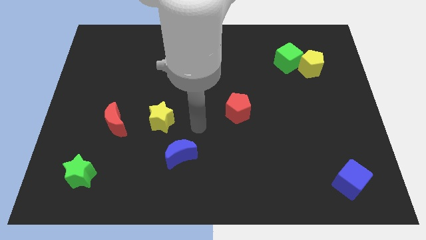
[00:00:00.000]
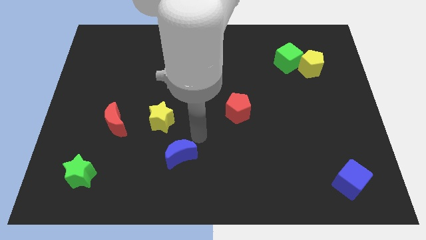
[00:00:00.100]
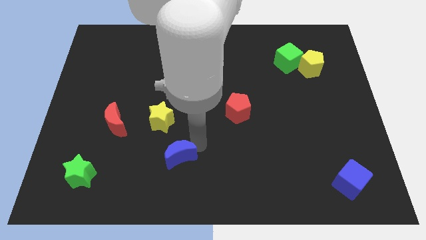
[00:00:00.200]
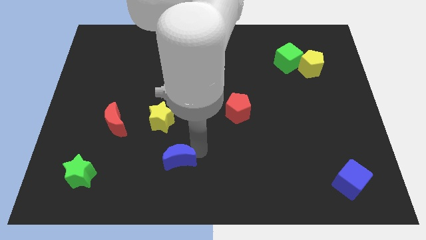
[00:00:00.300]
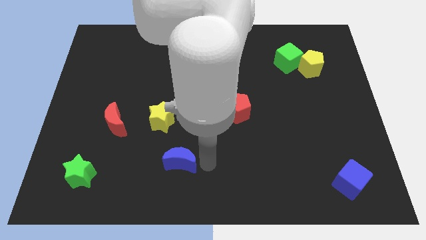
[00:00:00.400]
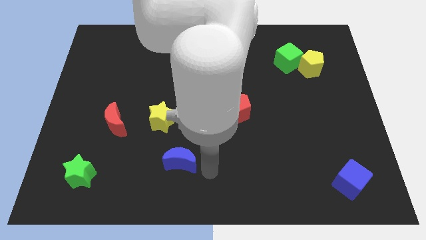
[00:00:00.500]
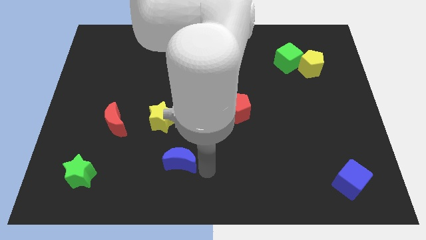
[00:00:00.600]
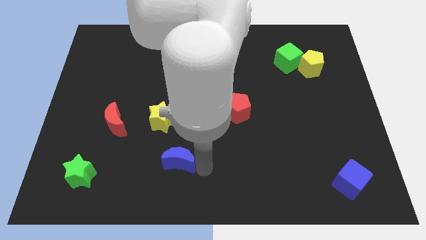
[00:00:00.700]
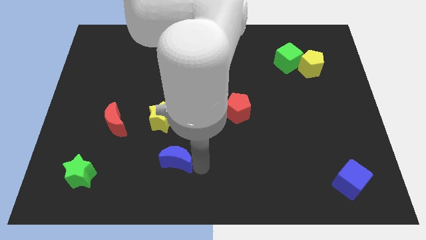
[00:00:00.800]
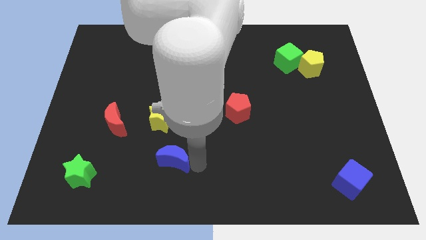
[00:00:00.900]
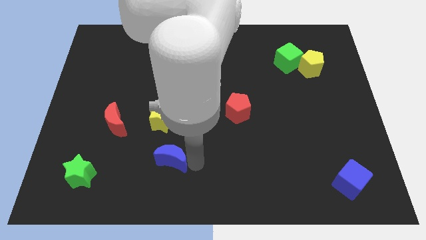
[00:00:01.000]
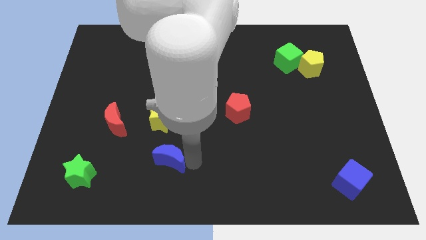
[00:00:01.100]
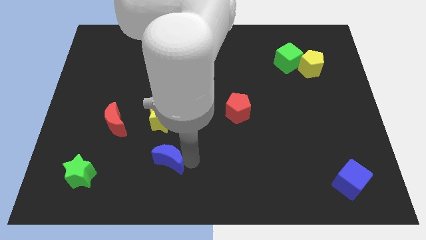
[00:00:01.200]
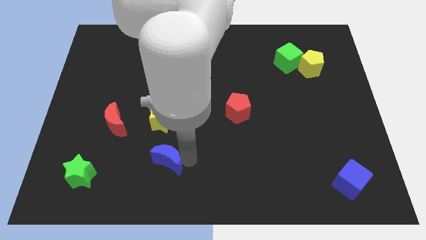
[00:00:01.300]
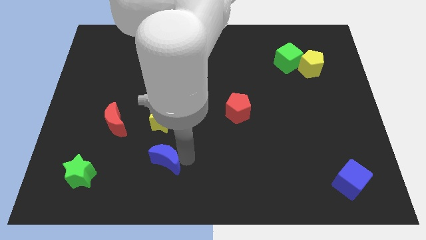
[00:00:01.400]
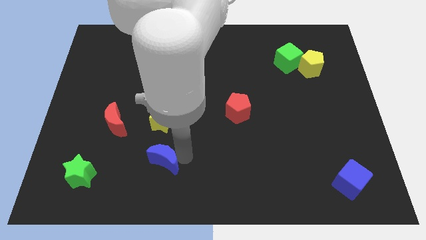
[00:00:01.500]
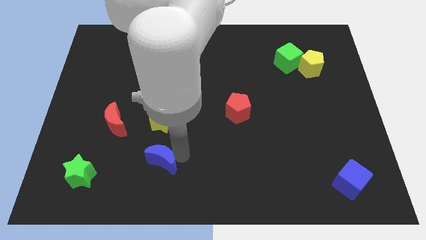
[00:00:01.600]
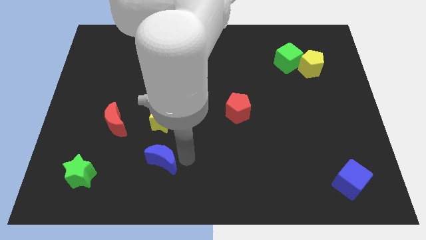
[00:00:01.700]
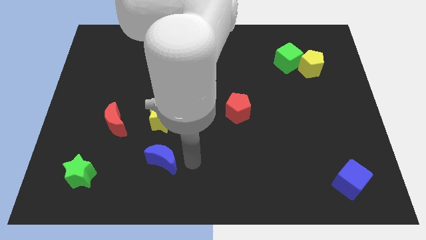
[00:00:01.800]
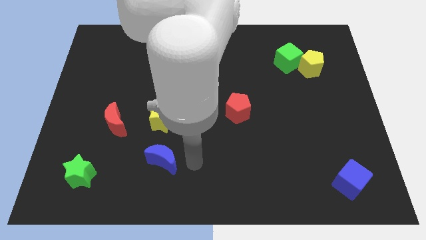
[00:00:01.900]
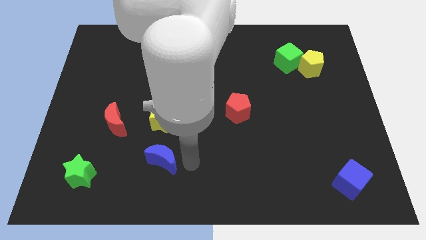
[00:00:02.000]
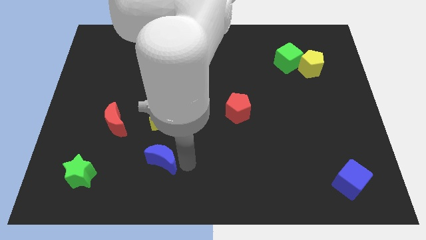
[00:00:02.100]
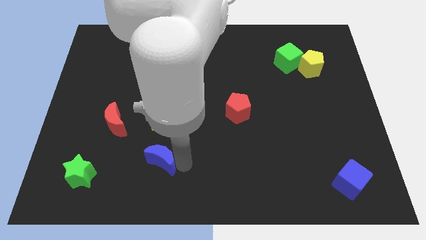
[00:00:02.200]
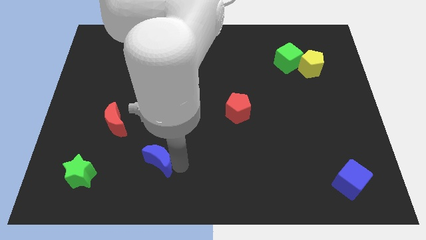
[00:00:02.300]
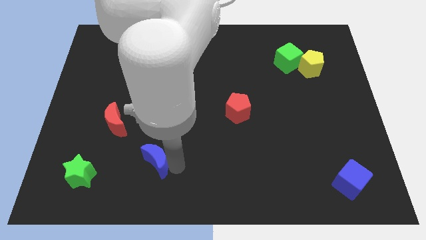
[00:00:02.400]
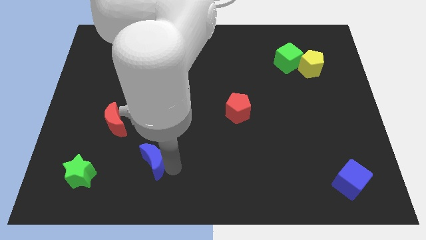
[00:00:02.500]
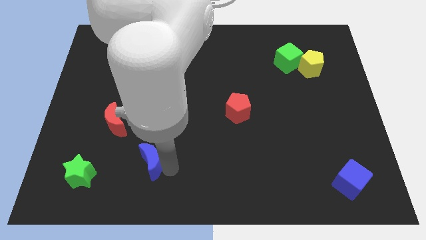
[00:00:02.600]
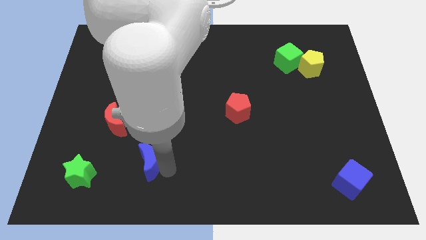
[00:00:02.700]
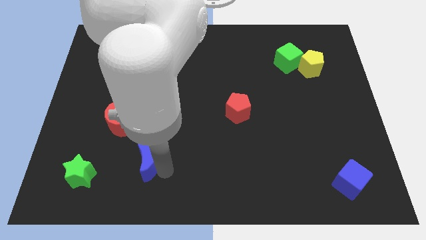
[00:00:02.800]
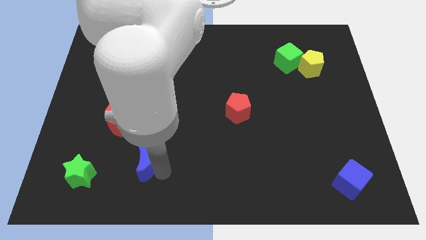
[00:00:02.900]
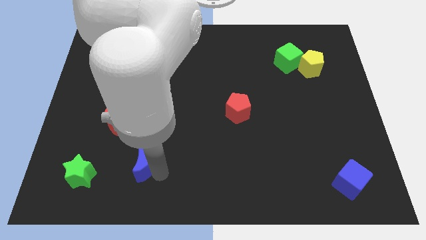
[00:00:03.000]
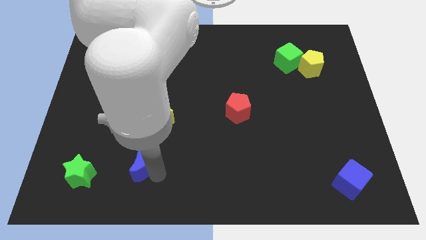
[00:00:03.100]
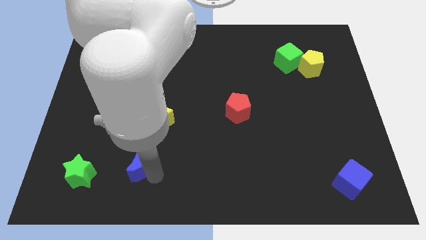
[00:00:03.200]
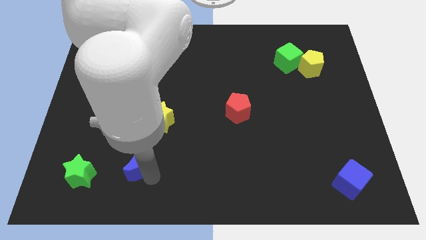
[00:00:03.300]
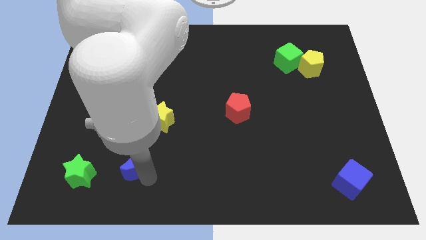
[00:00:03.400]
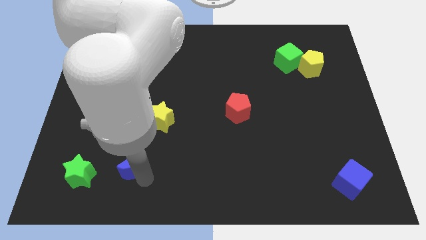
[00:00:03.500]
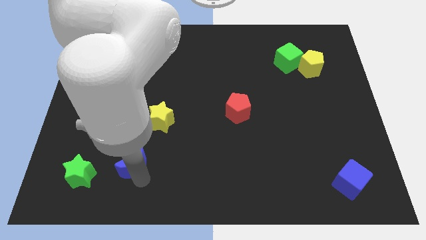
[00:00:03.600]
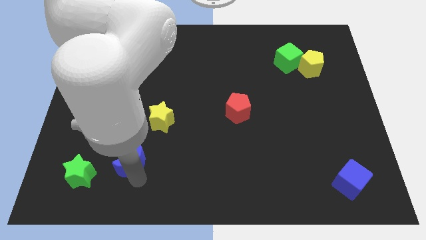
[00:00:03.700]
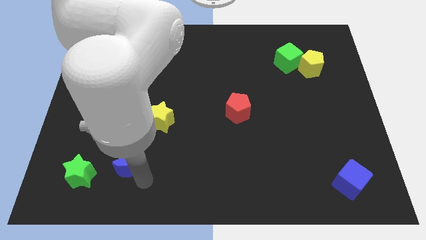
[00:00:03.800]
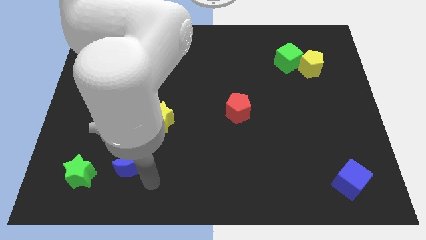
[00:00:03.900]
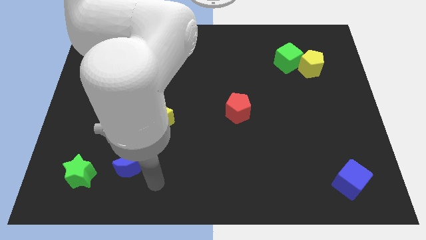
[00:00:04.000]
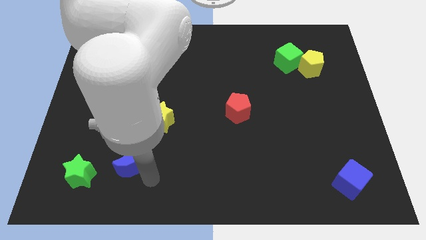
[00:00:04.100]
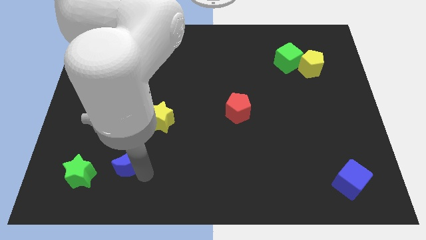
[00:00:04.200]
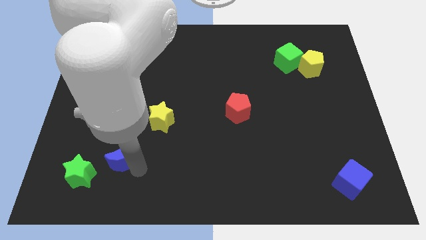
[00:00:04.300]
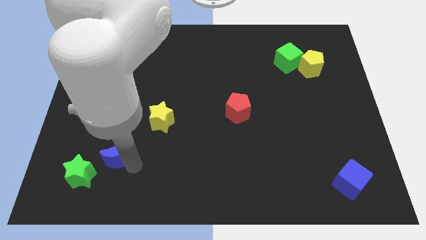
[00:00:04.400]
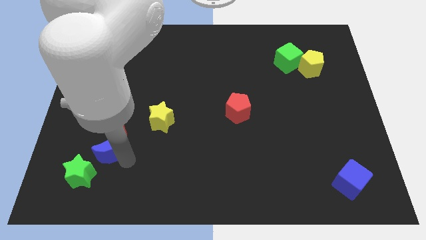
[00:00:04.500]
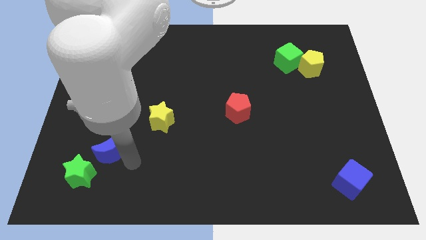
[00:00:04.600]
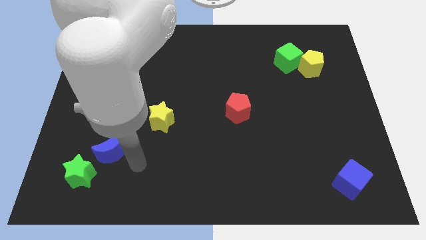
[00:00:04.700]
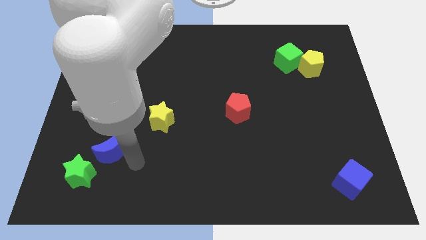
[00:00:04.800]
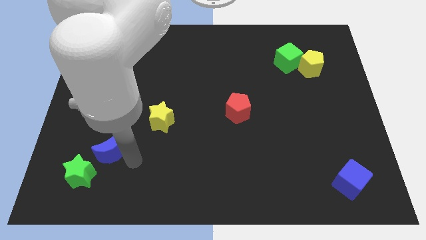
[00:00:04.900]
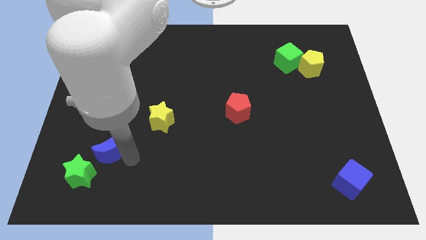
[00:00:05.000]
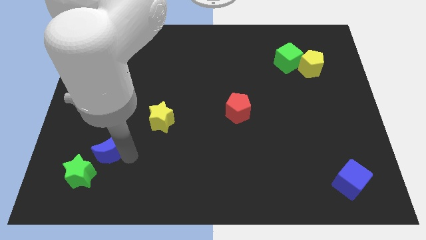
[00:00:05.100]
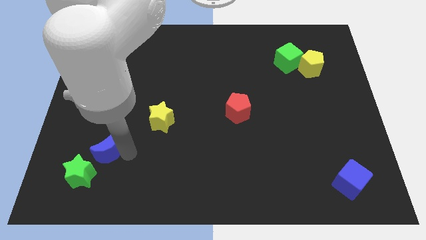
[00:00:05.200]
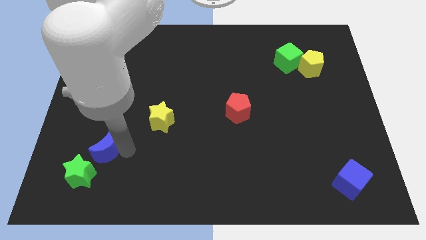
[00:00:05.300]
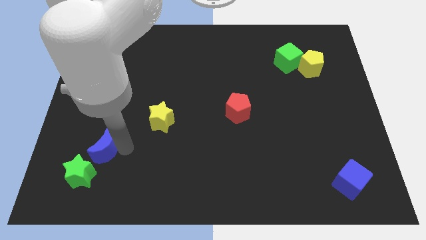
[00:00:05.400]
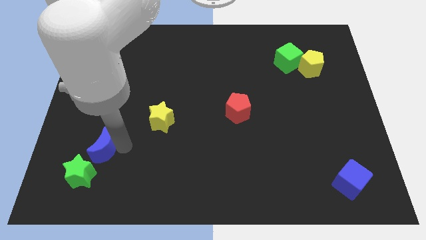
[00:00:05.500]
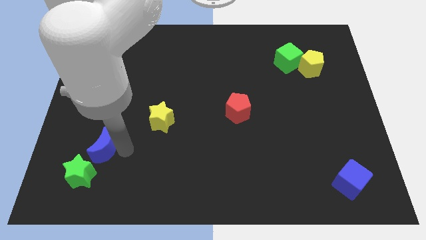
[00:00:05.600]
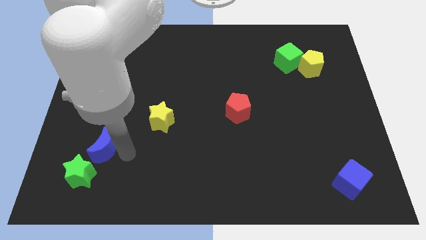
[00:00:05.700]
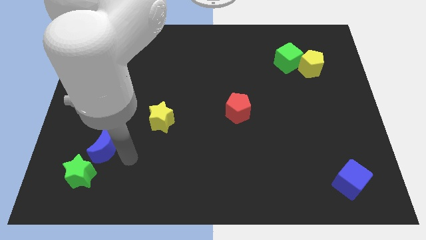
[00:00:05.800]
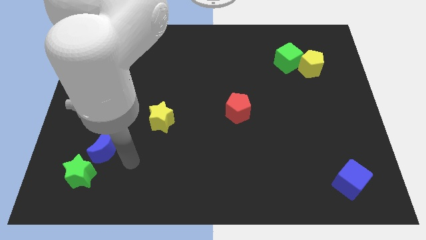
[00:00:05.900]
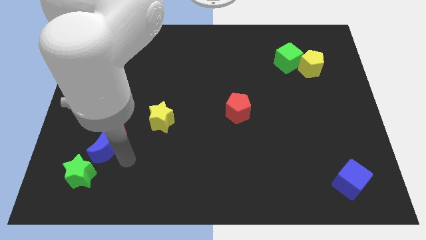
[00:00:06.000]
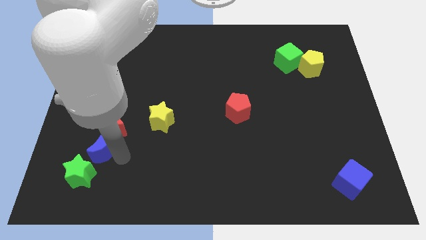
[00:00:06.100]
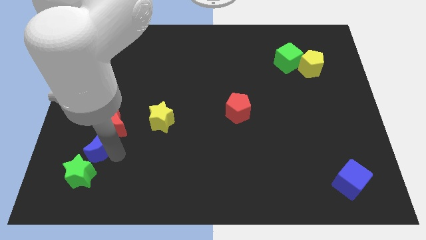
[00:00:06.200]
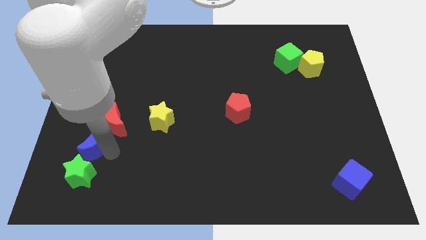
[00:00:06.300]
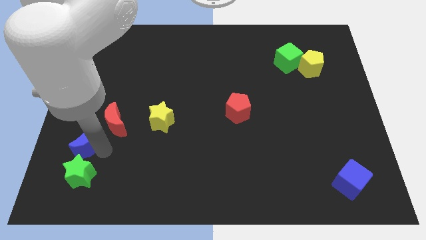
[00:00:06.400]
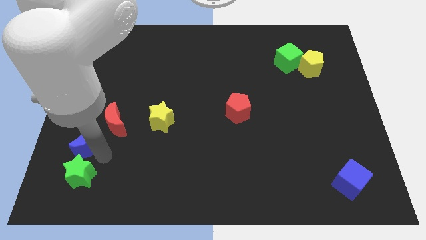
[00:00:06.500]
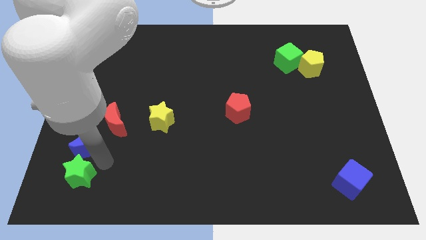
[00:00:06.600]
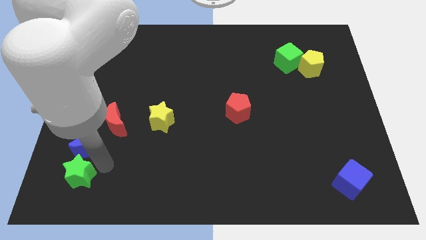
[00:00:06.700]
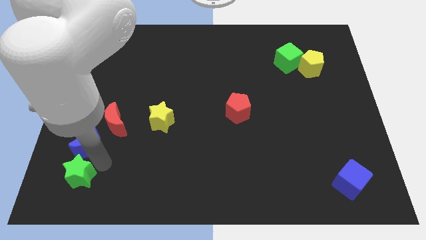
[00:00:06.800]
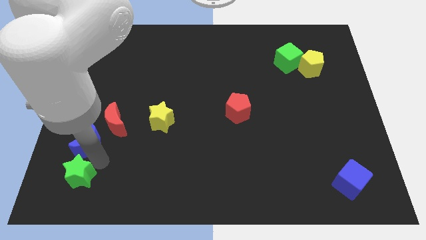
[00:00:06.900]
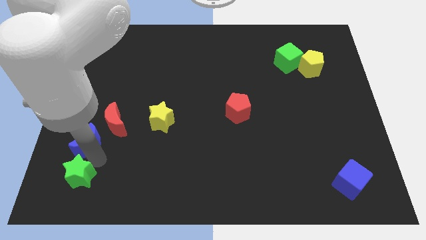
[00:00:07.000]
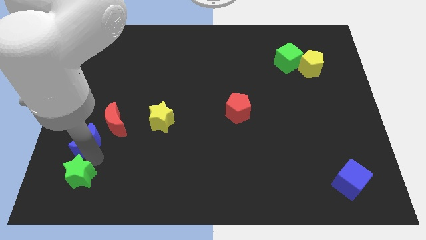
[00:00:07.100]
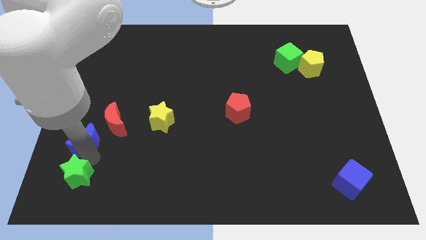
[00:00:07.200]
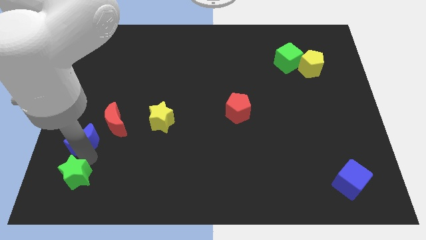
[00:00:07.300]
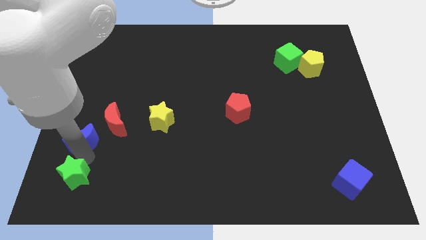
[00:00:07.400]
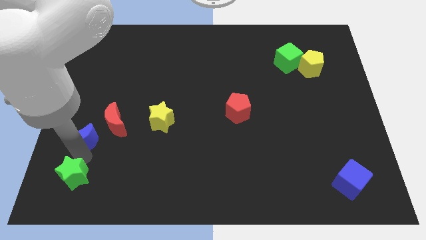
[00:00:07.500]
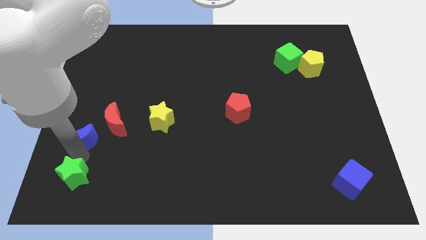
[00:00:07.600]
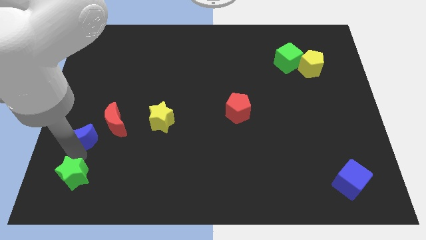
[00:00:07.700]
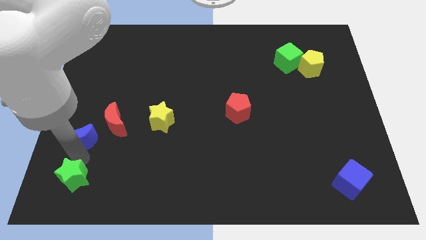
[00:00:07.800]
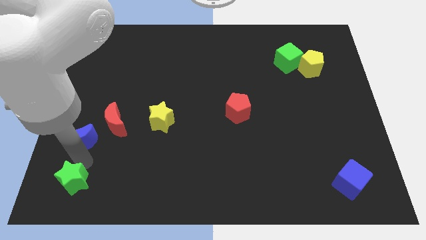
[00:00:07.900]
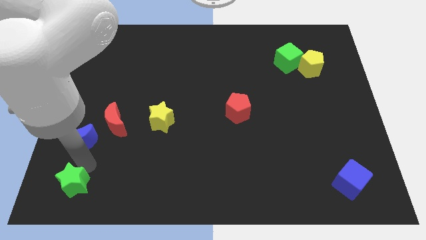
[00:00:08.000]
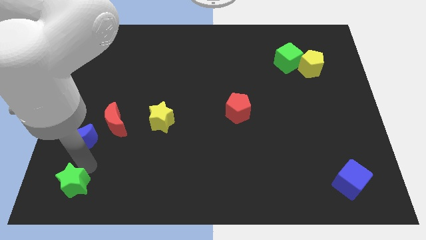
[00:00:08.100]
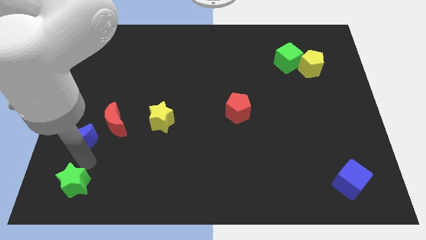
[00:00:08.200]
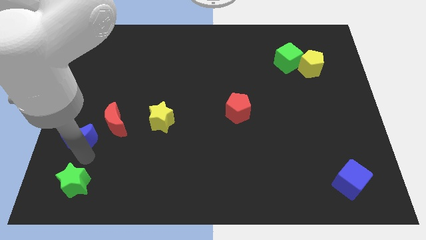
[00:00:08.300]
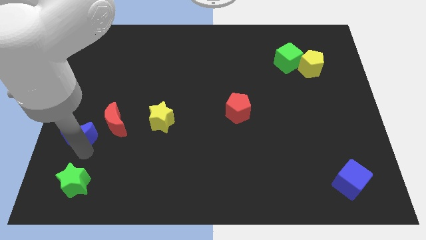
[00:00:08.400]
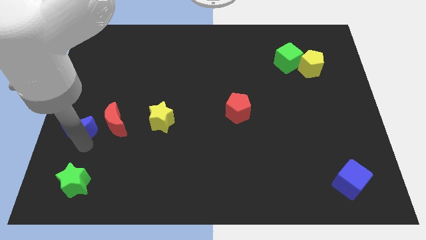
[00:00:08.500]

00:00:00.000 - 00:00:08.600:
push the blue moon to the left side of the board
